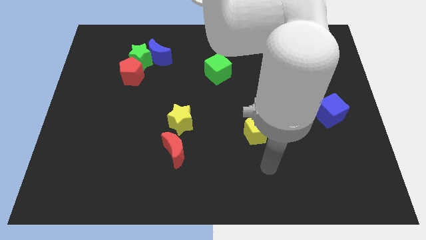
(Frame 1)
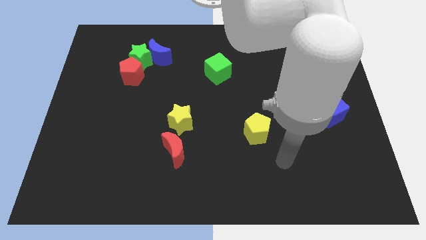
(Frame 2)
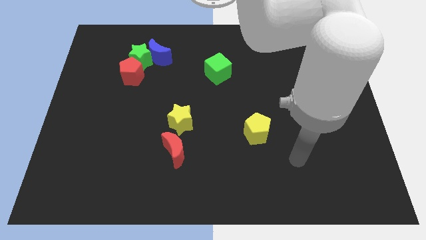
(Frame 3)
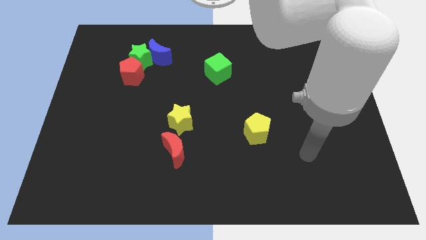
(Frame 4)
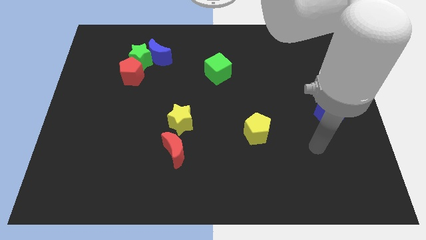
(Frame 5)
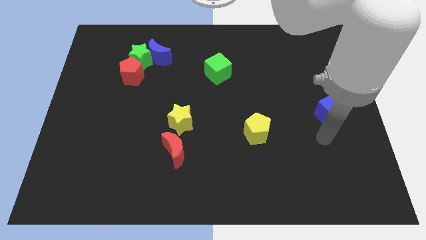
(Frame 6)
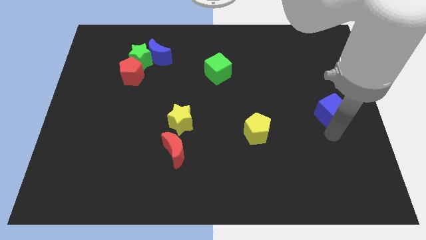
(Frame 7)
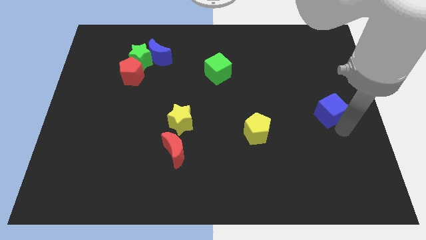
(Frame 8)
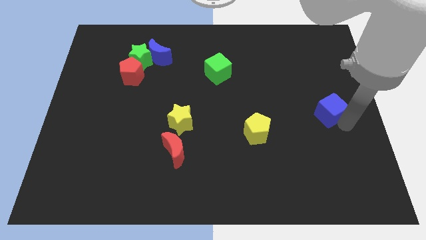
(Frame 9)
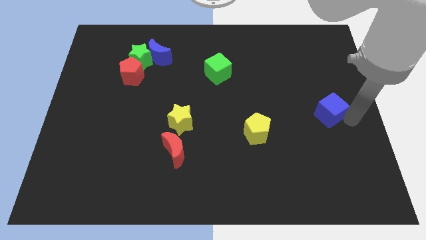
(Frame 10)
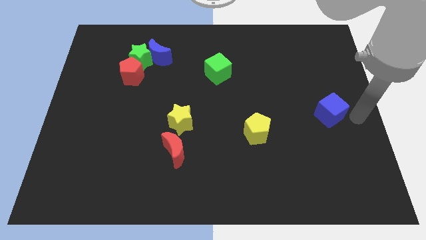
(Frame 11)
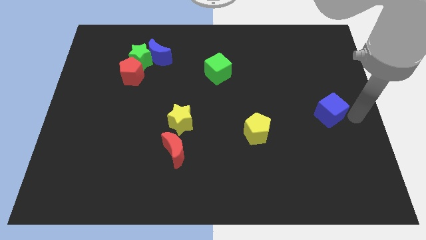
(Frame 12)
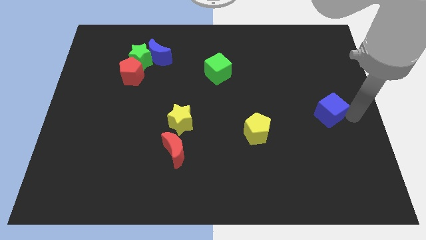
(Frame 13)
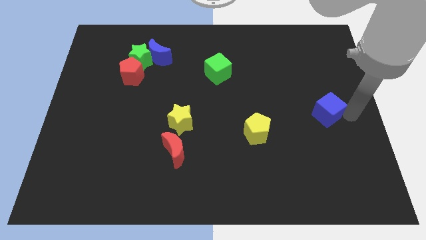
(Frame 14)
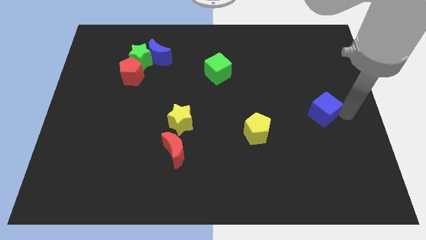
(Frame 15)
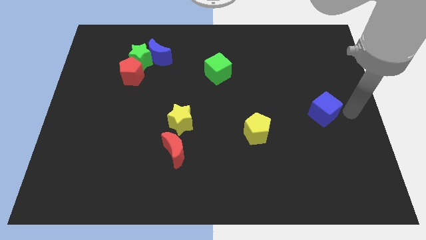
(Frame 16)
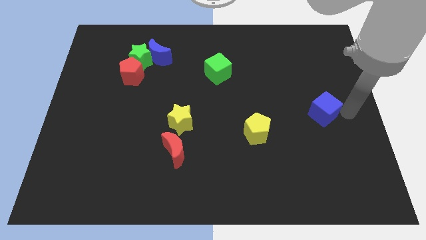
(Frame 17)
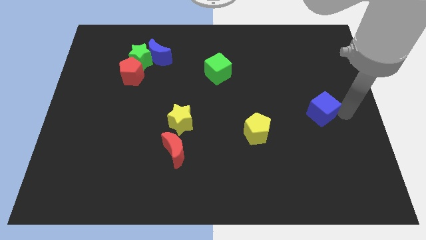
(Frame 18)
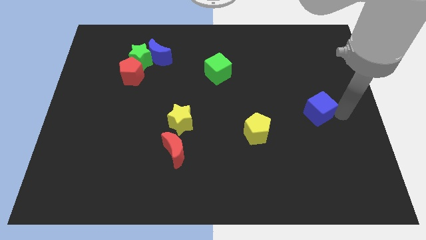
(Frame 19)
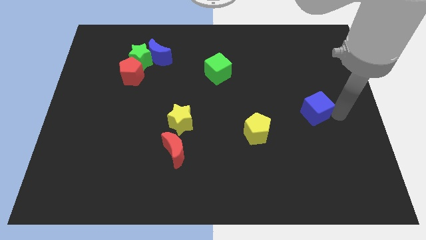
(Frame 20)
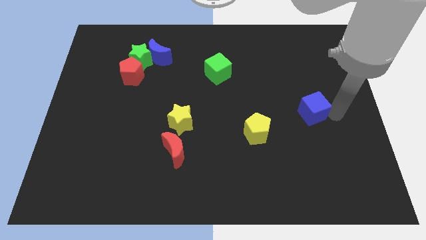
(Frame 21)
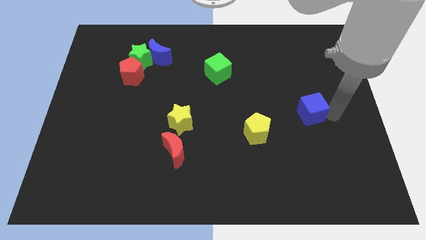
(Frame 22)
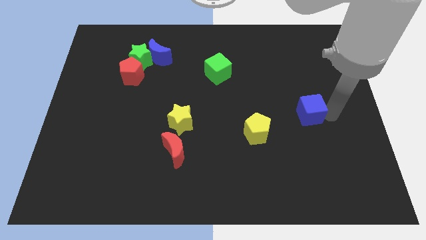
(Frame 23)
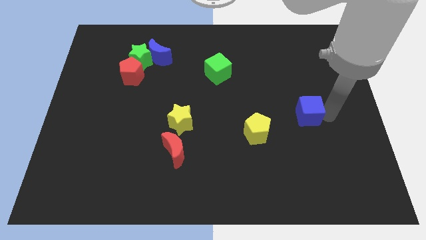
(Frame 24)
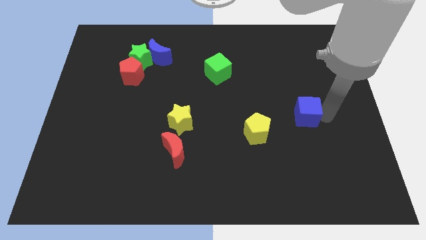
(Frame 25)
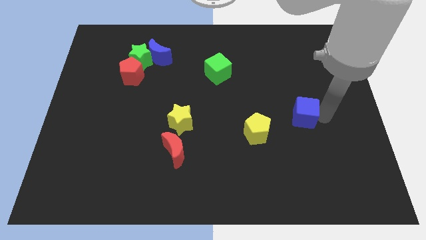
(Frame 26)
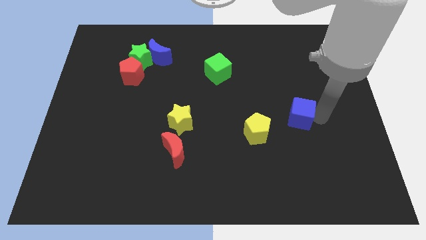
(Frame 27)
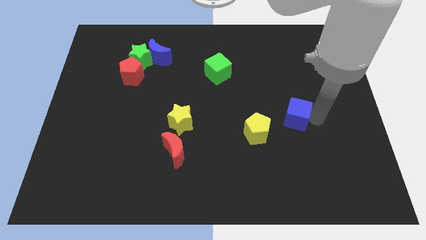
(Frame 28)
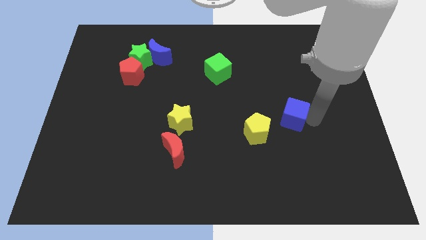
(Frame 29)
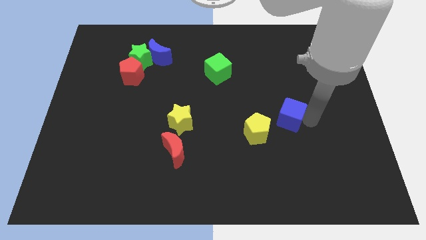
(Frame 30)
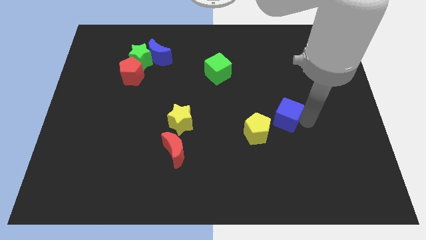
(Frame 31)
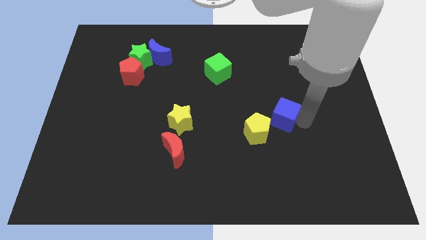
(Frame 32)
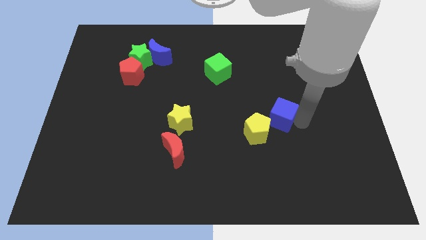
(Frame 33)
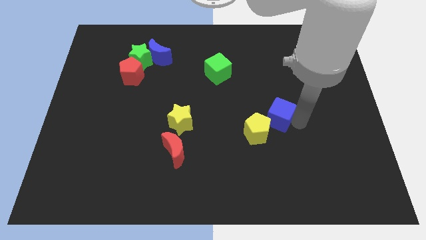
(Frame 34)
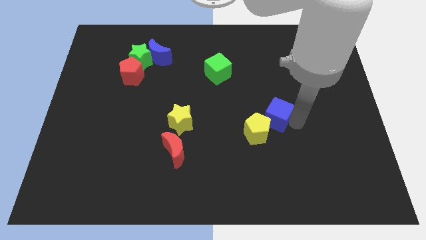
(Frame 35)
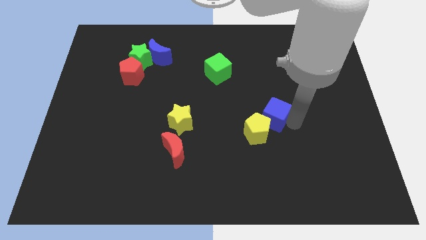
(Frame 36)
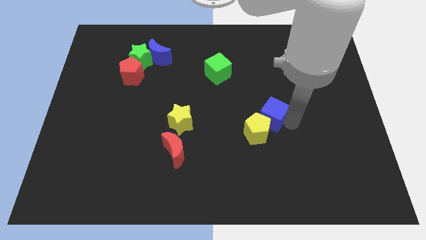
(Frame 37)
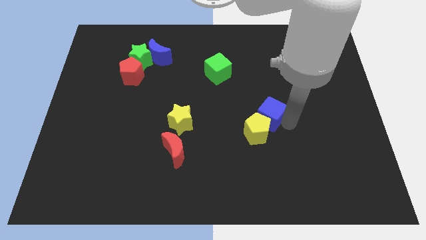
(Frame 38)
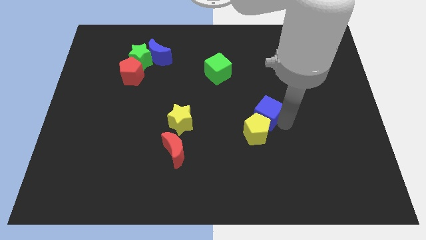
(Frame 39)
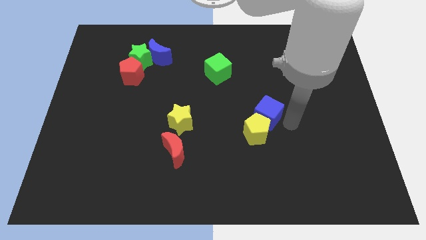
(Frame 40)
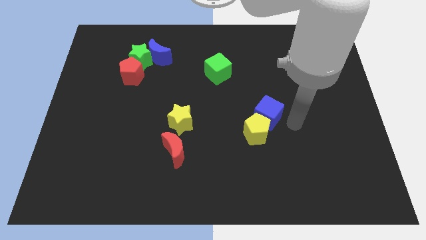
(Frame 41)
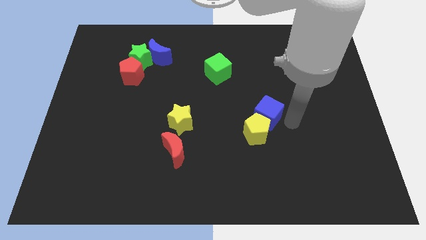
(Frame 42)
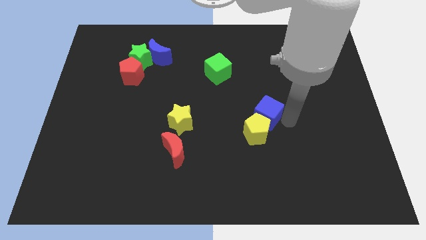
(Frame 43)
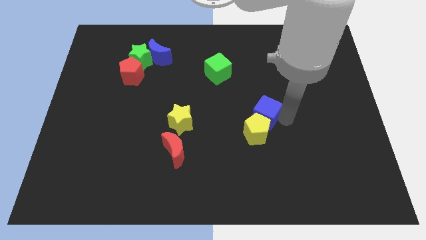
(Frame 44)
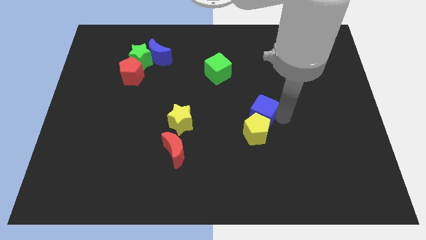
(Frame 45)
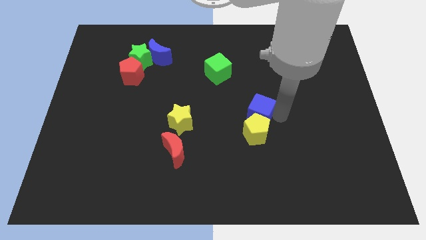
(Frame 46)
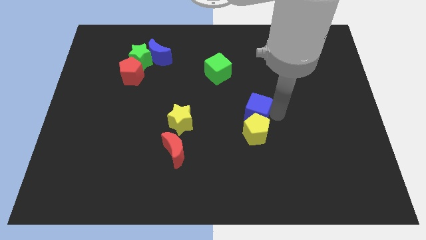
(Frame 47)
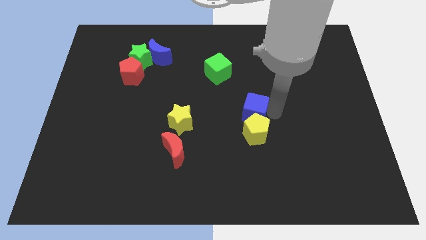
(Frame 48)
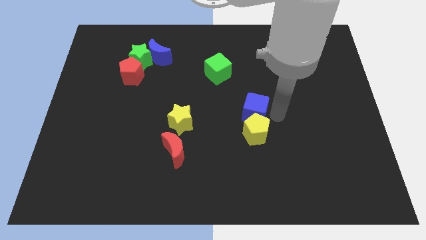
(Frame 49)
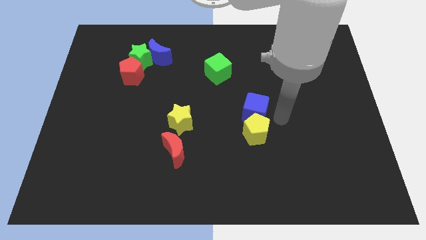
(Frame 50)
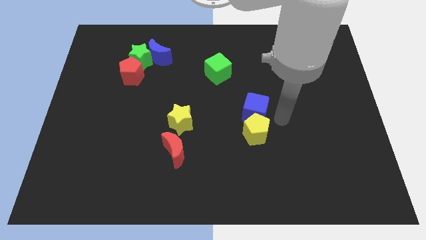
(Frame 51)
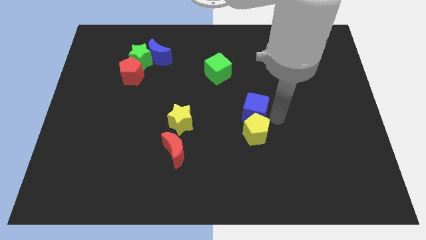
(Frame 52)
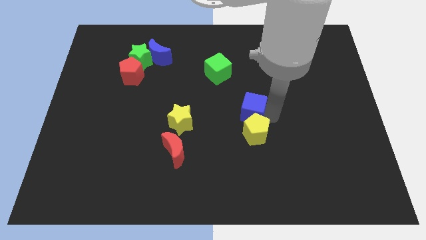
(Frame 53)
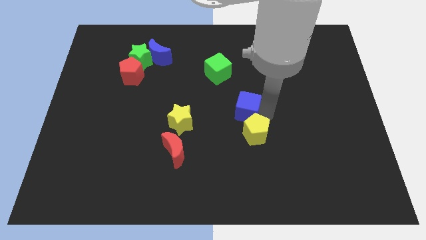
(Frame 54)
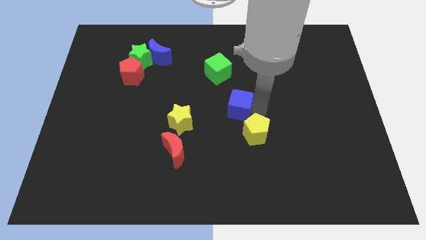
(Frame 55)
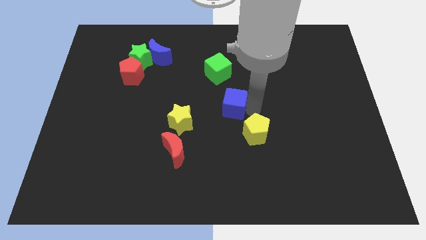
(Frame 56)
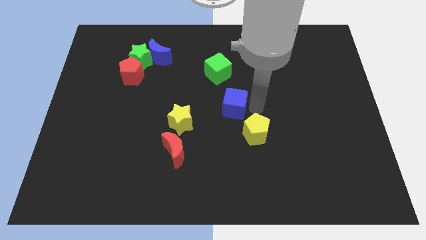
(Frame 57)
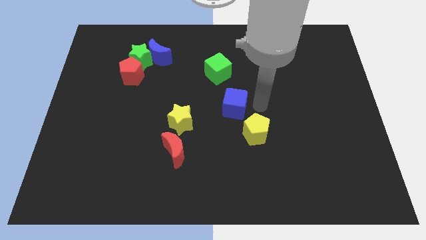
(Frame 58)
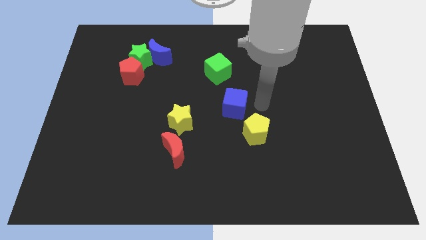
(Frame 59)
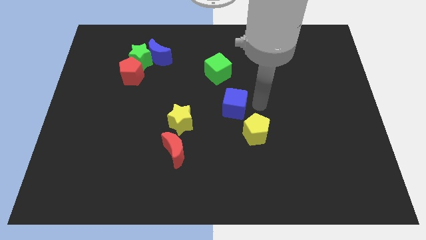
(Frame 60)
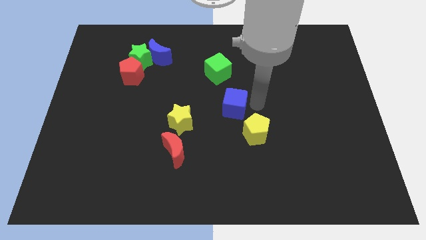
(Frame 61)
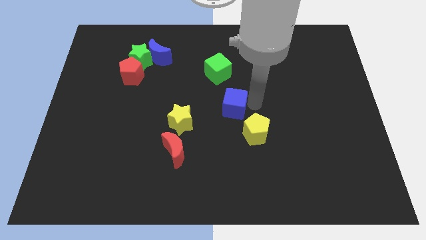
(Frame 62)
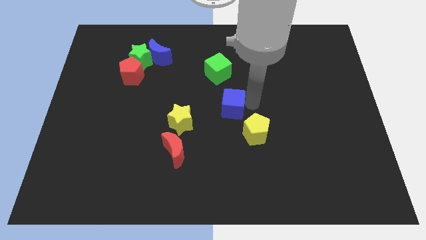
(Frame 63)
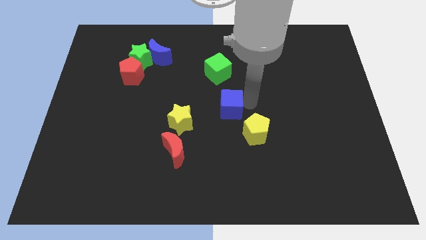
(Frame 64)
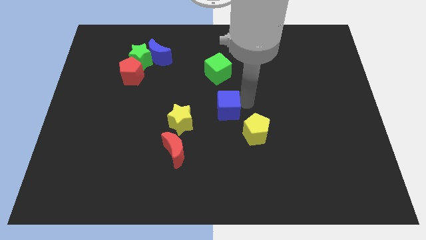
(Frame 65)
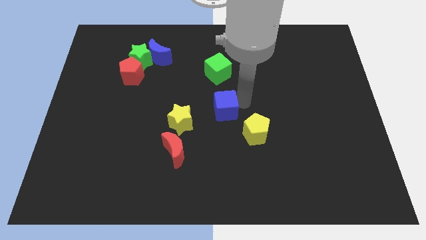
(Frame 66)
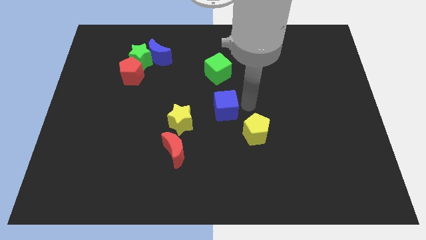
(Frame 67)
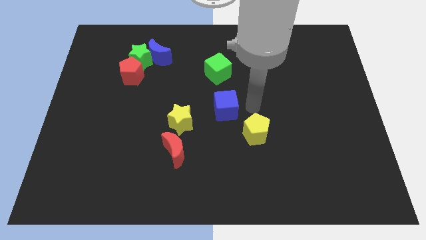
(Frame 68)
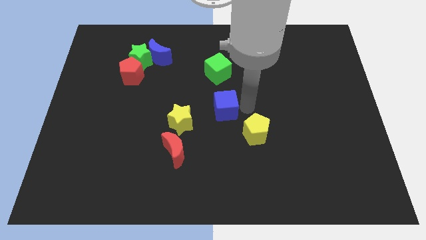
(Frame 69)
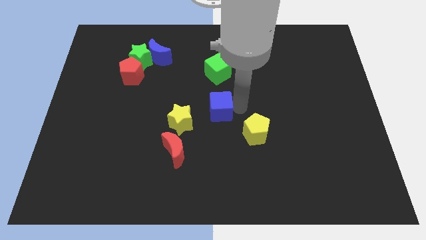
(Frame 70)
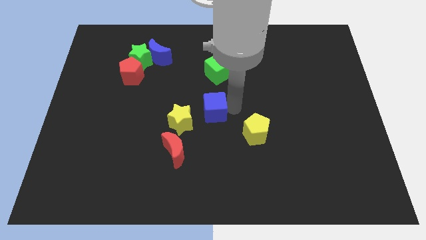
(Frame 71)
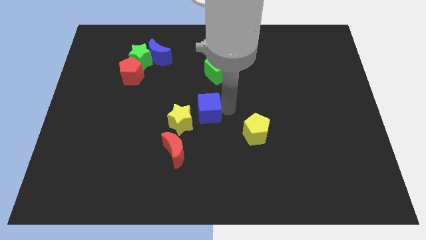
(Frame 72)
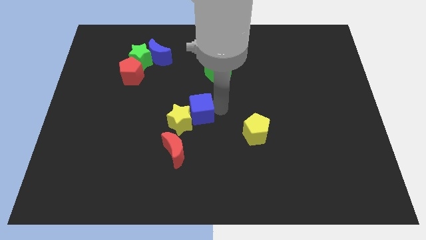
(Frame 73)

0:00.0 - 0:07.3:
put the blue cube close to the yellow star
